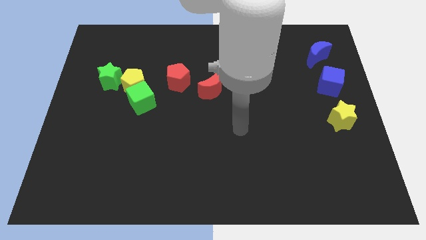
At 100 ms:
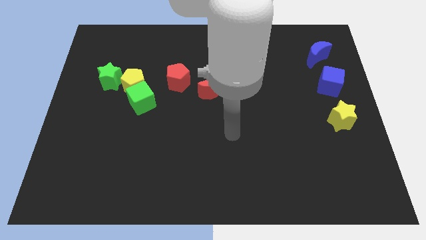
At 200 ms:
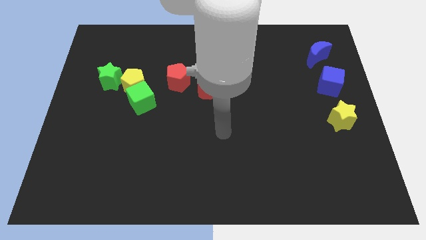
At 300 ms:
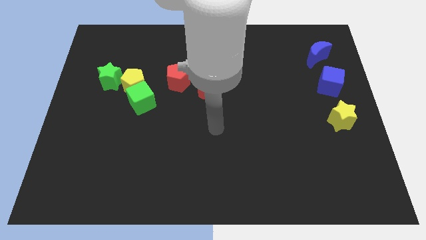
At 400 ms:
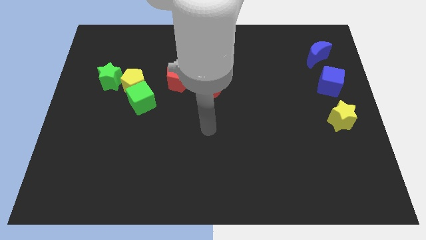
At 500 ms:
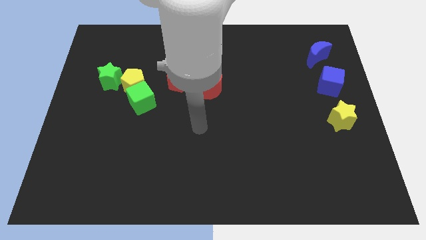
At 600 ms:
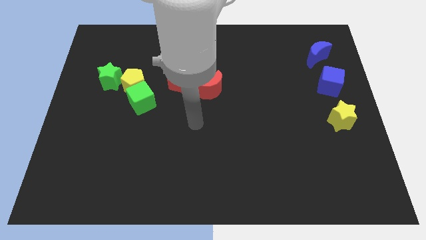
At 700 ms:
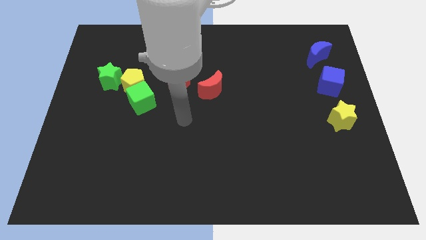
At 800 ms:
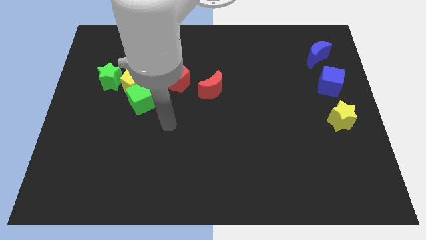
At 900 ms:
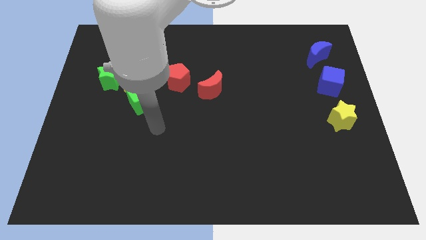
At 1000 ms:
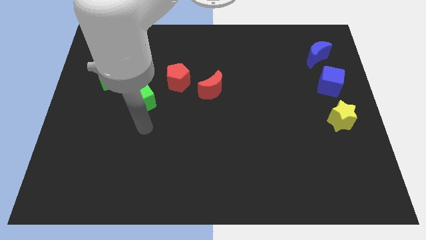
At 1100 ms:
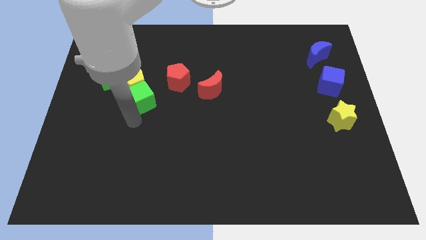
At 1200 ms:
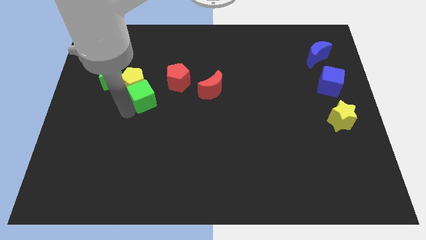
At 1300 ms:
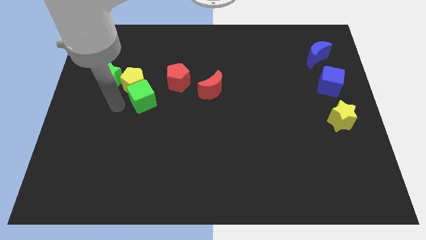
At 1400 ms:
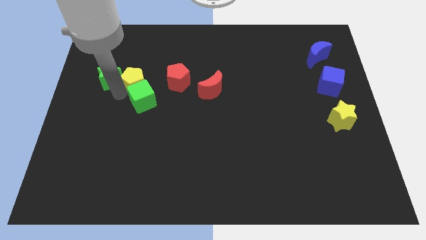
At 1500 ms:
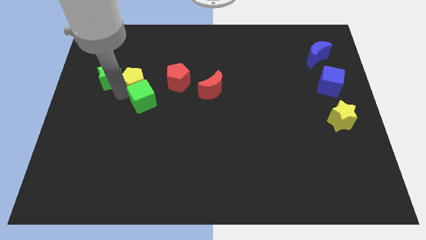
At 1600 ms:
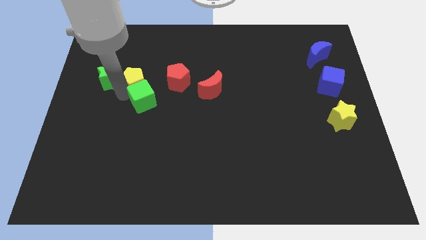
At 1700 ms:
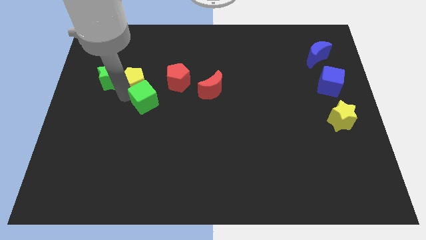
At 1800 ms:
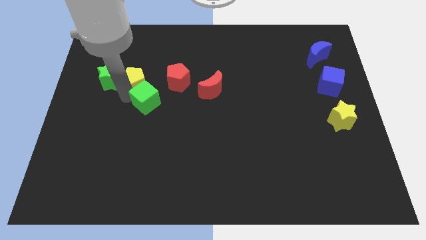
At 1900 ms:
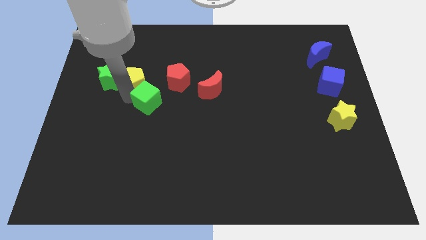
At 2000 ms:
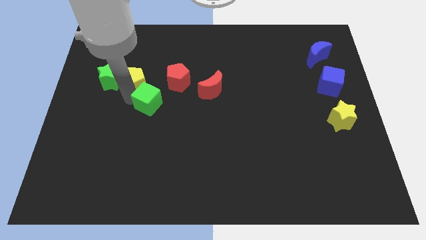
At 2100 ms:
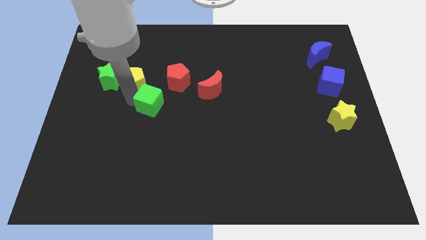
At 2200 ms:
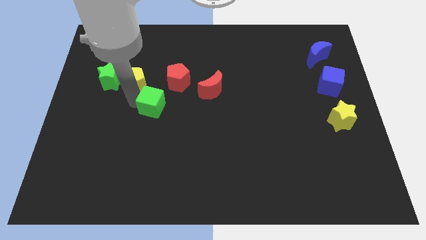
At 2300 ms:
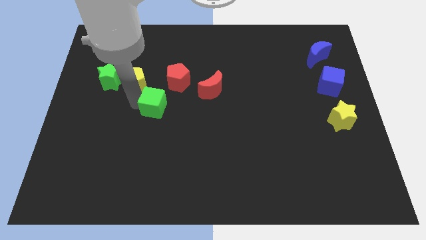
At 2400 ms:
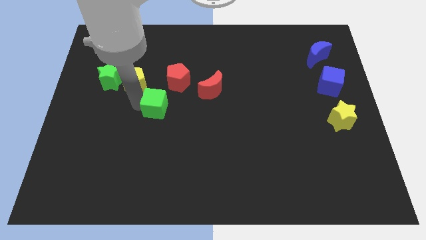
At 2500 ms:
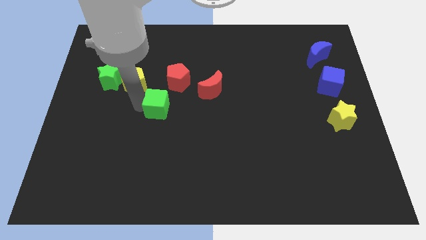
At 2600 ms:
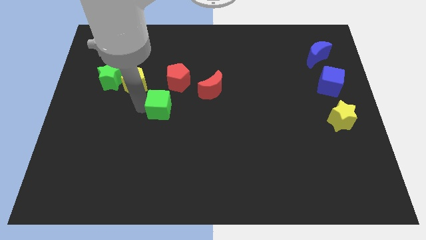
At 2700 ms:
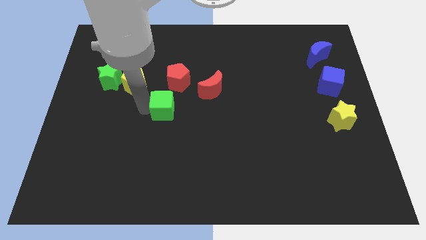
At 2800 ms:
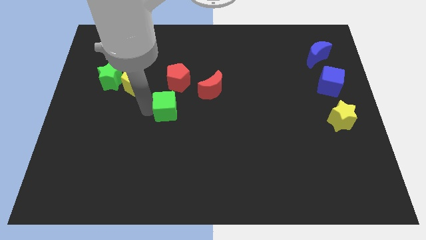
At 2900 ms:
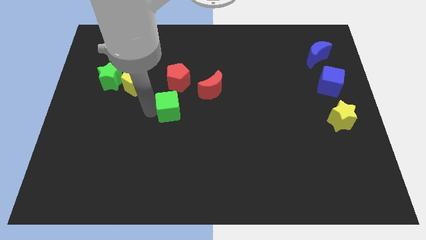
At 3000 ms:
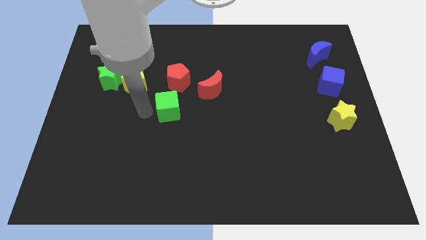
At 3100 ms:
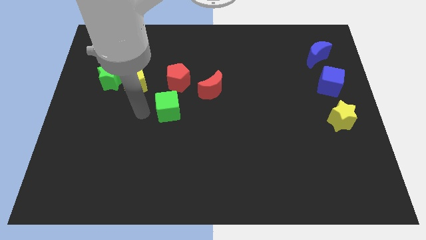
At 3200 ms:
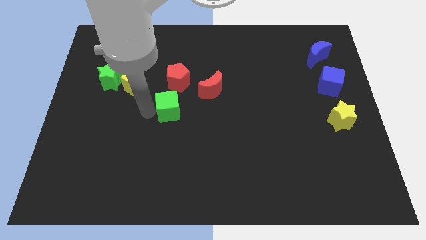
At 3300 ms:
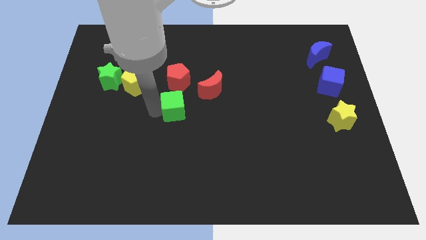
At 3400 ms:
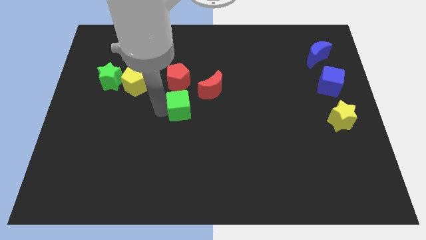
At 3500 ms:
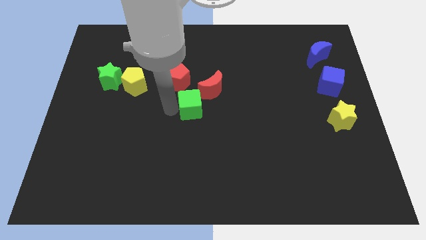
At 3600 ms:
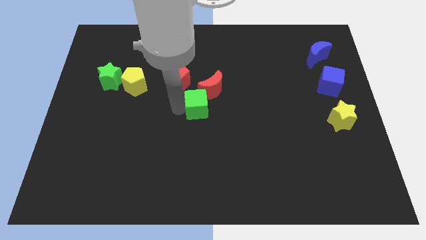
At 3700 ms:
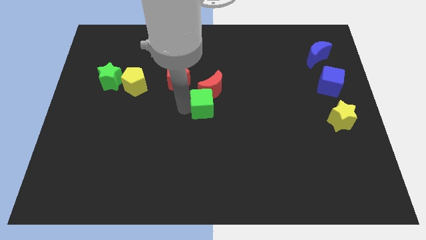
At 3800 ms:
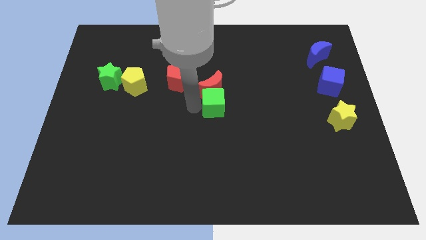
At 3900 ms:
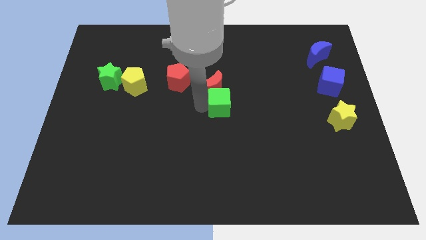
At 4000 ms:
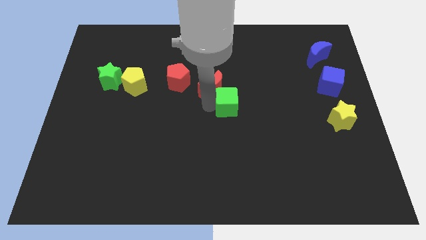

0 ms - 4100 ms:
push the green cube right

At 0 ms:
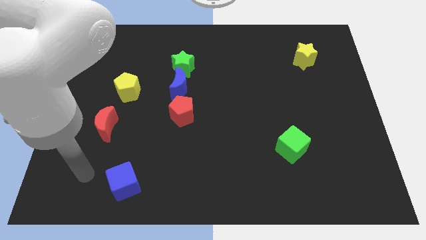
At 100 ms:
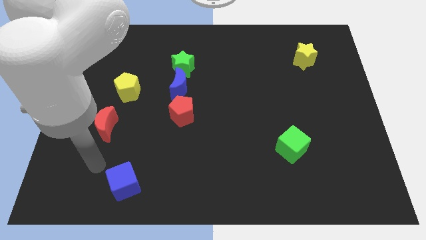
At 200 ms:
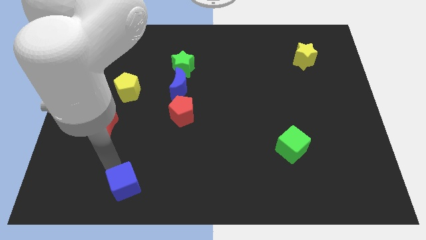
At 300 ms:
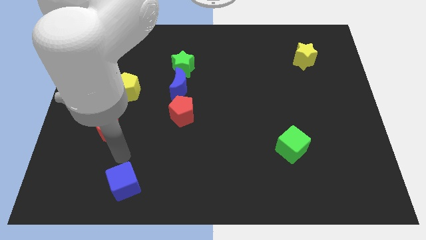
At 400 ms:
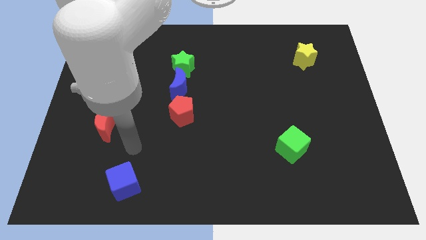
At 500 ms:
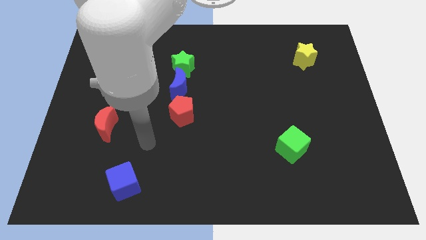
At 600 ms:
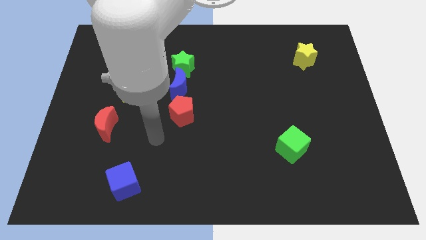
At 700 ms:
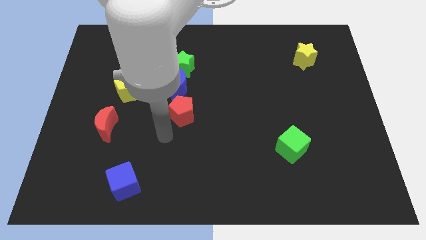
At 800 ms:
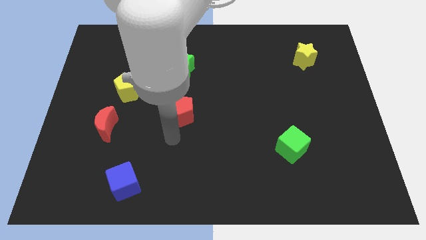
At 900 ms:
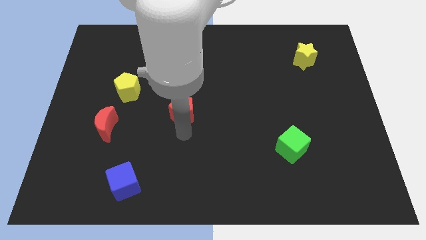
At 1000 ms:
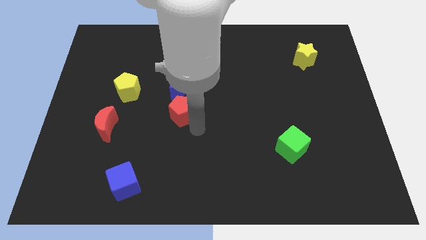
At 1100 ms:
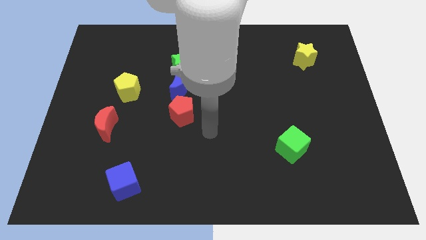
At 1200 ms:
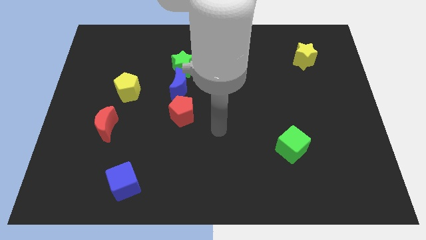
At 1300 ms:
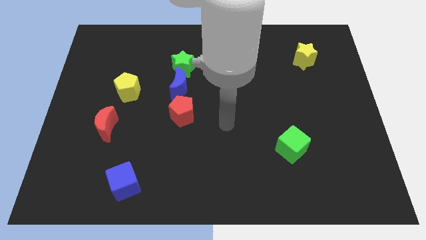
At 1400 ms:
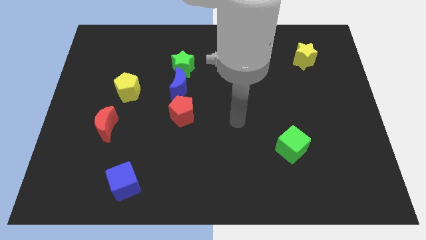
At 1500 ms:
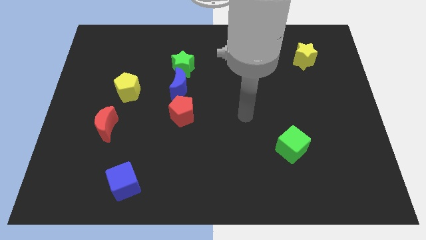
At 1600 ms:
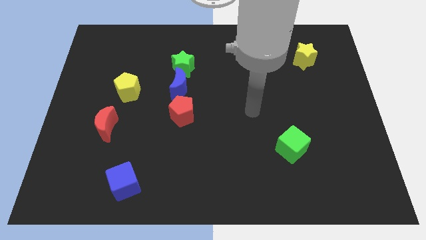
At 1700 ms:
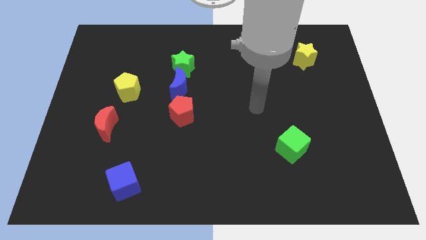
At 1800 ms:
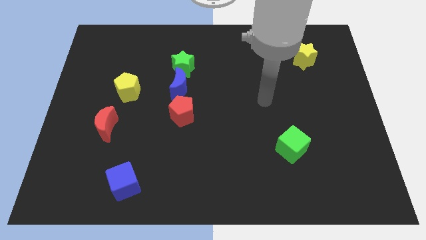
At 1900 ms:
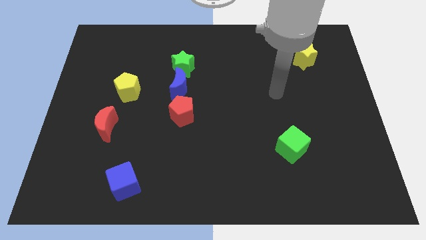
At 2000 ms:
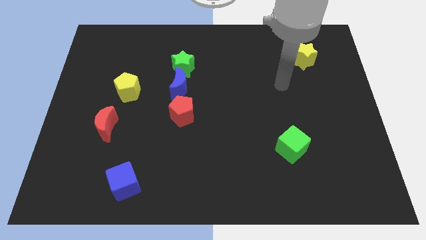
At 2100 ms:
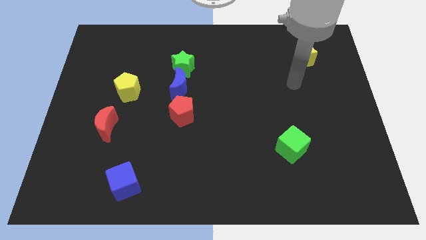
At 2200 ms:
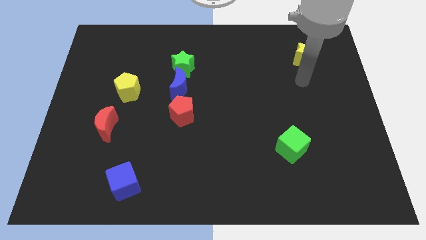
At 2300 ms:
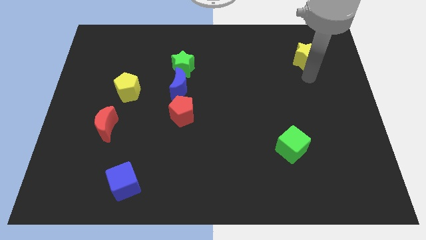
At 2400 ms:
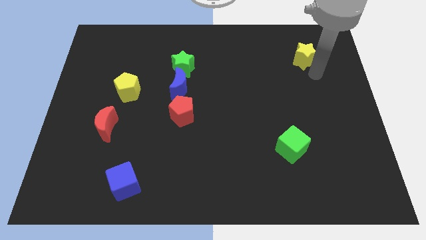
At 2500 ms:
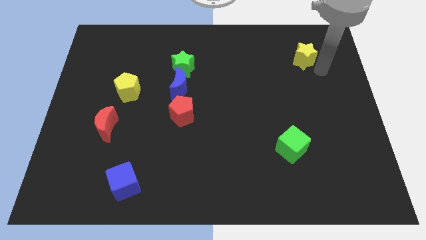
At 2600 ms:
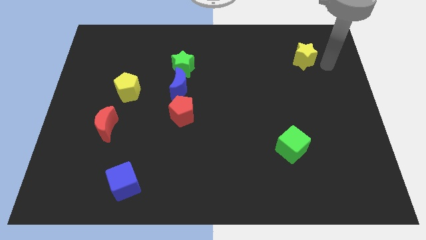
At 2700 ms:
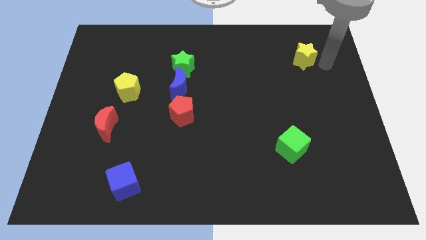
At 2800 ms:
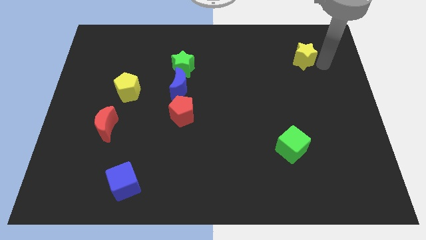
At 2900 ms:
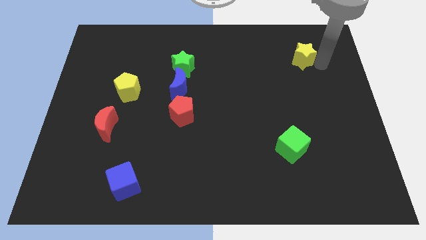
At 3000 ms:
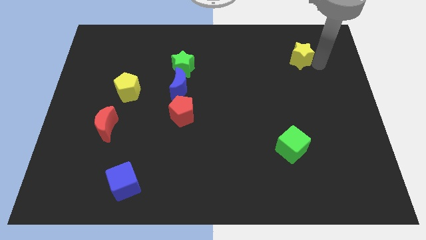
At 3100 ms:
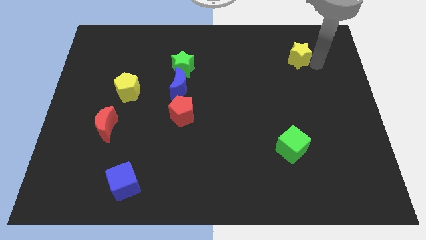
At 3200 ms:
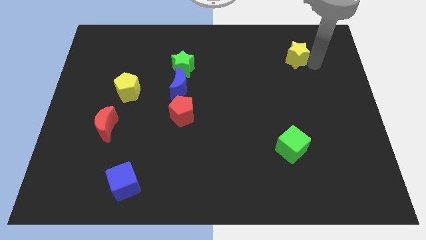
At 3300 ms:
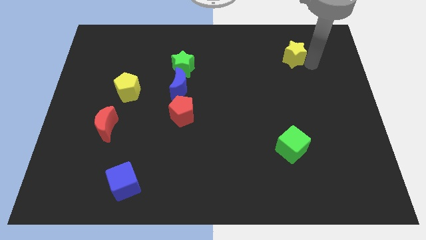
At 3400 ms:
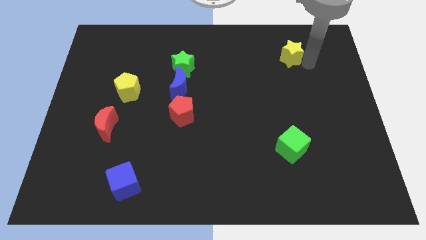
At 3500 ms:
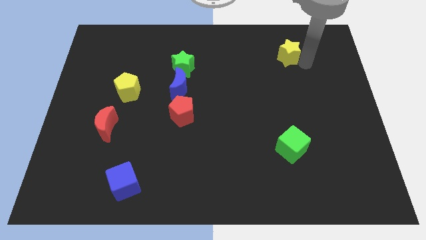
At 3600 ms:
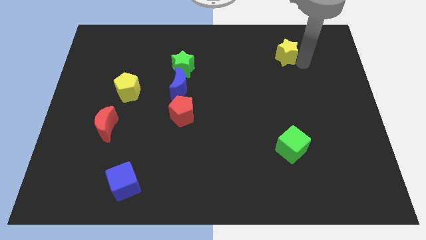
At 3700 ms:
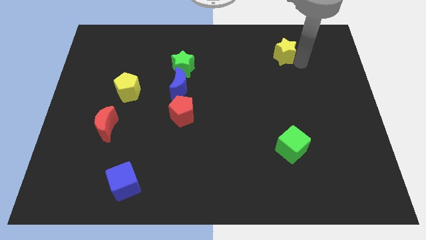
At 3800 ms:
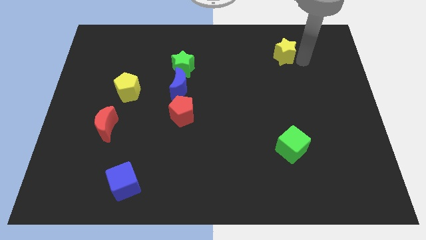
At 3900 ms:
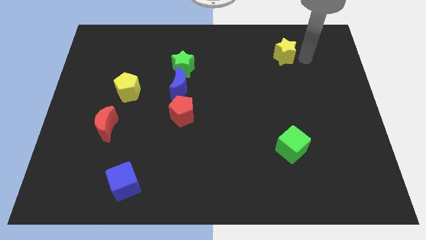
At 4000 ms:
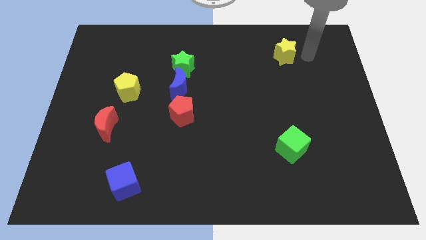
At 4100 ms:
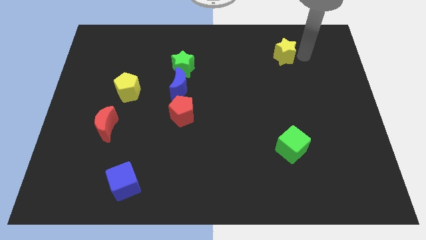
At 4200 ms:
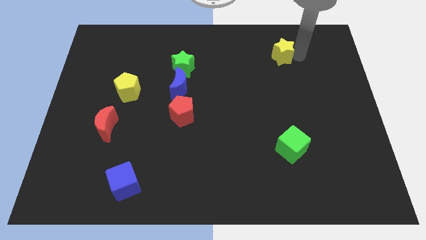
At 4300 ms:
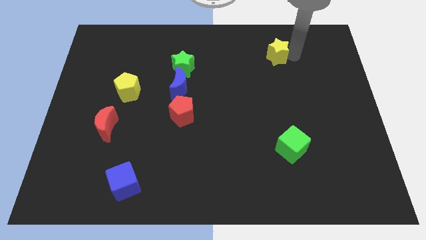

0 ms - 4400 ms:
push the yellow star left somewhat

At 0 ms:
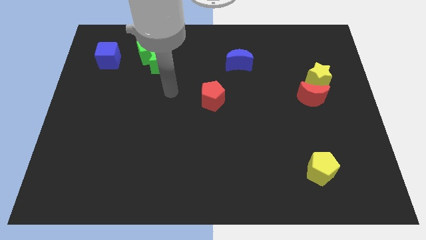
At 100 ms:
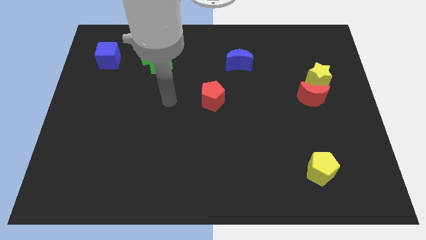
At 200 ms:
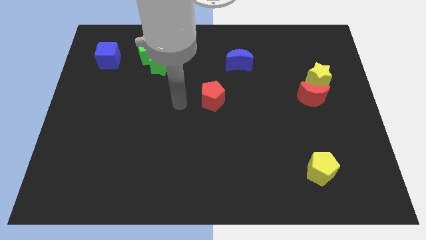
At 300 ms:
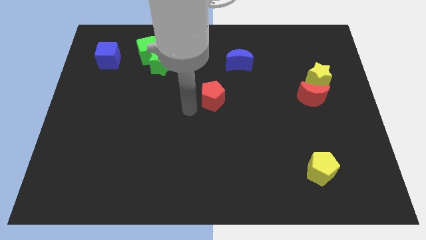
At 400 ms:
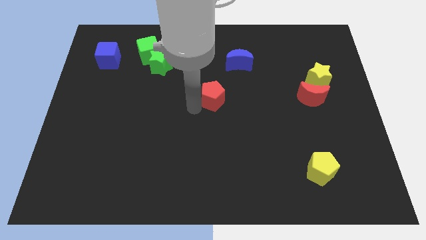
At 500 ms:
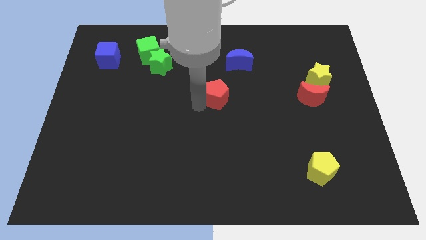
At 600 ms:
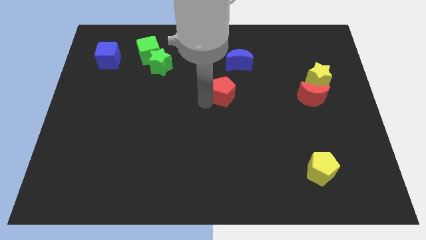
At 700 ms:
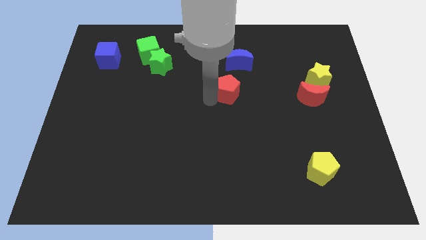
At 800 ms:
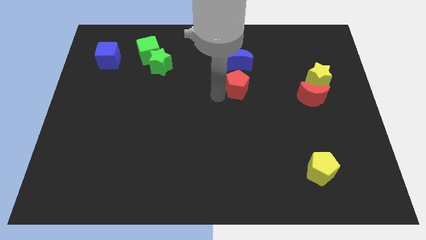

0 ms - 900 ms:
slightly slide the red pentagon up and to the right diagonally
